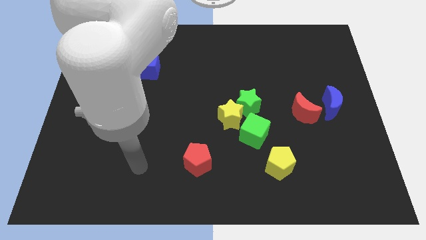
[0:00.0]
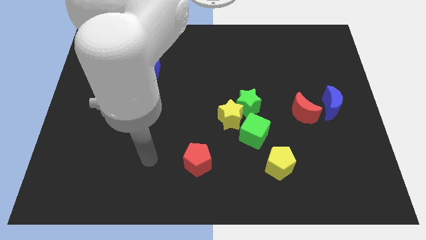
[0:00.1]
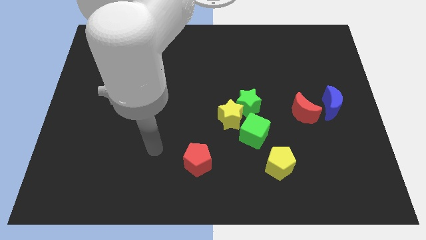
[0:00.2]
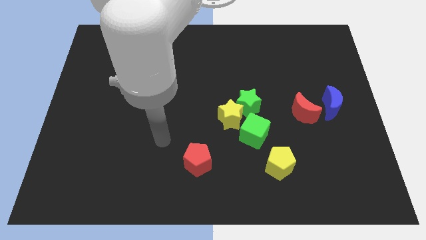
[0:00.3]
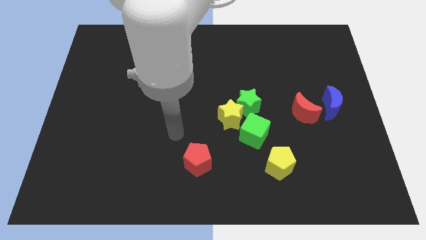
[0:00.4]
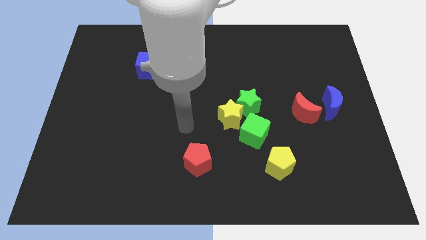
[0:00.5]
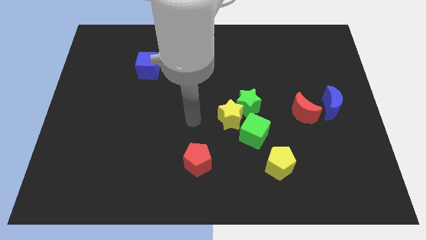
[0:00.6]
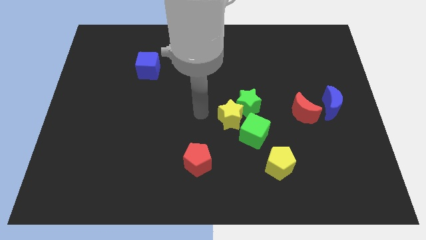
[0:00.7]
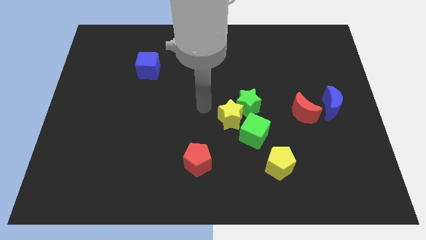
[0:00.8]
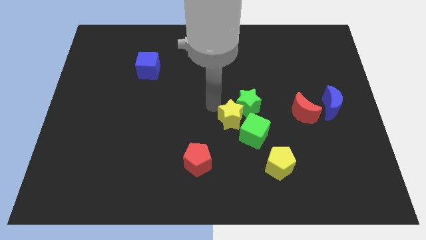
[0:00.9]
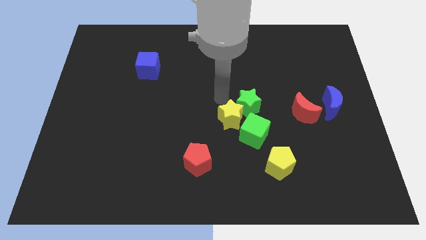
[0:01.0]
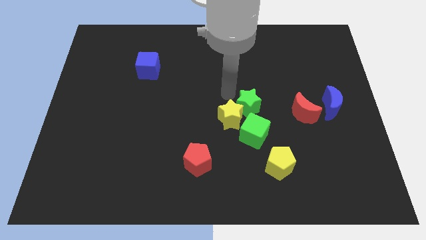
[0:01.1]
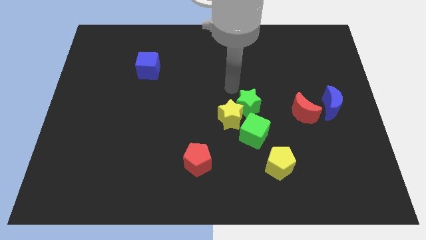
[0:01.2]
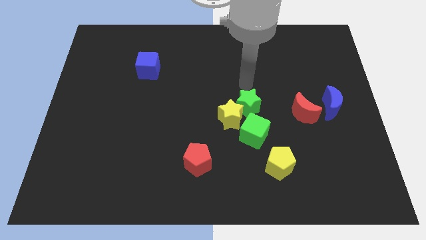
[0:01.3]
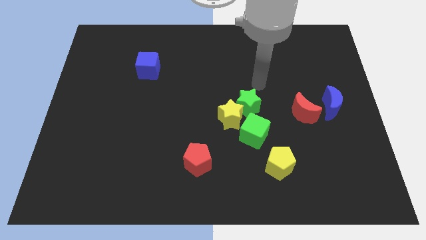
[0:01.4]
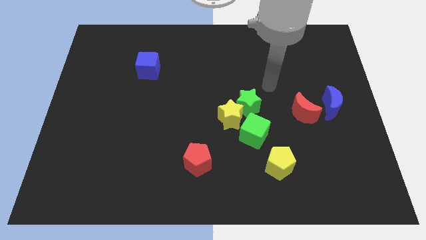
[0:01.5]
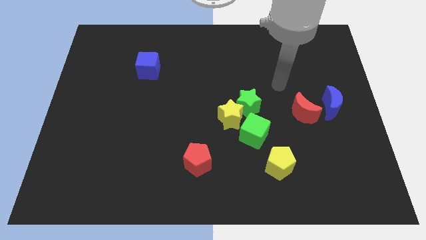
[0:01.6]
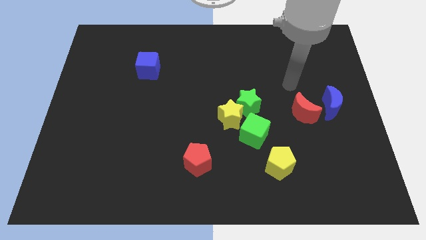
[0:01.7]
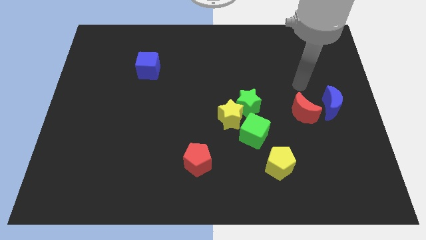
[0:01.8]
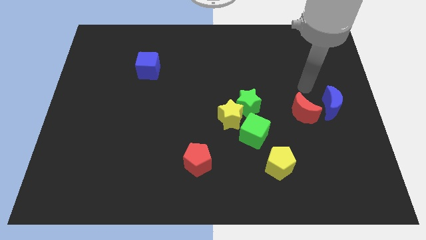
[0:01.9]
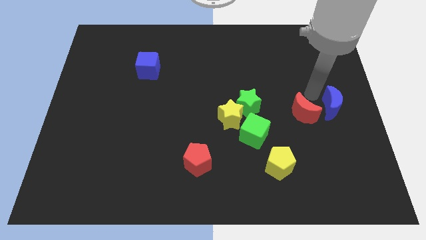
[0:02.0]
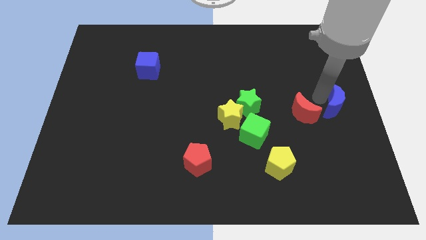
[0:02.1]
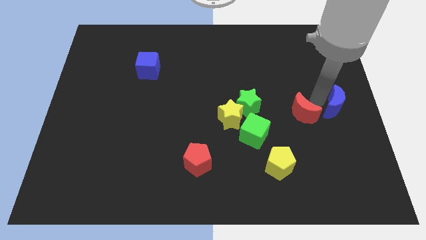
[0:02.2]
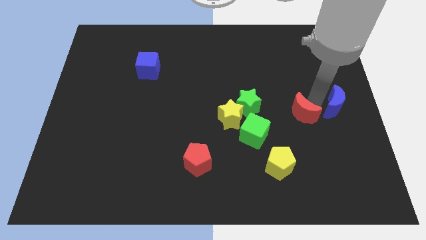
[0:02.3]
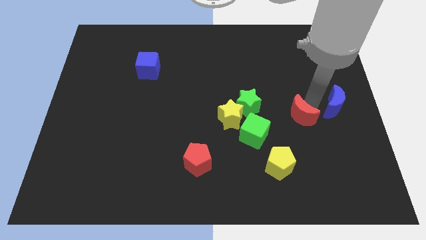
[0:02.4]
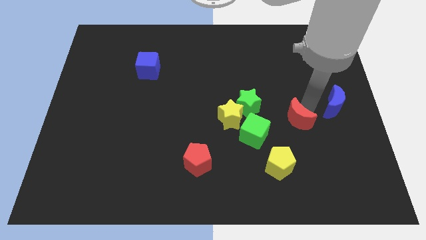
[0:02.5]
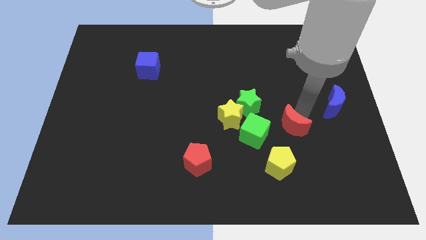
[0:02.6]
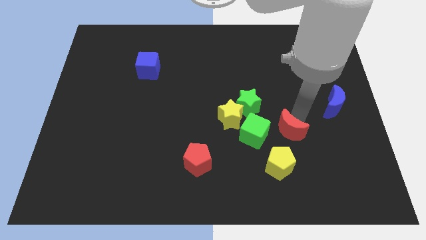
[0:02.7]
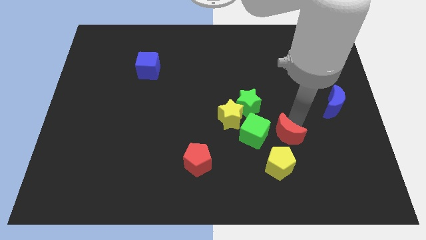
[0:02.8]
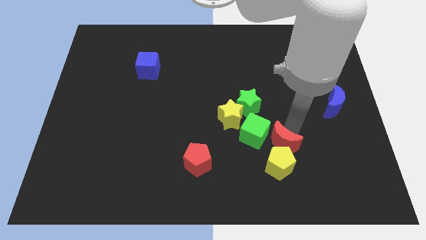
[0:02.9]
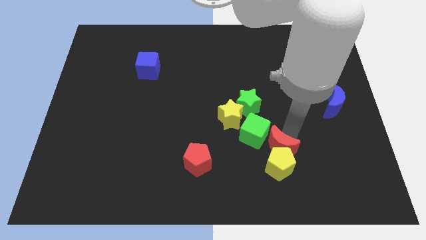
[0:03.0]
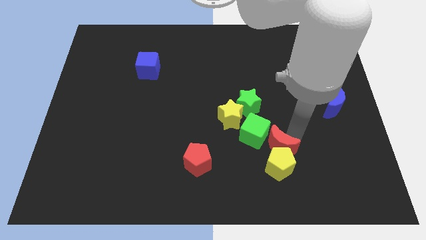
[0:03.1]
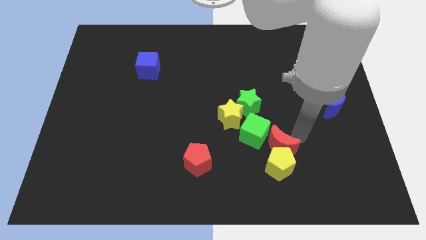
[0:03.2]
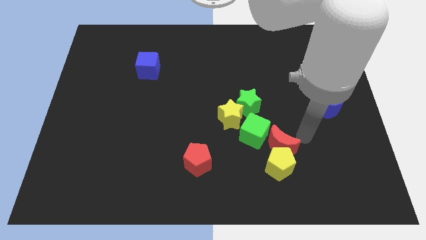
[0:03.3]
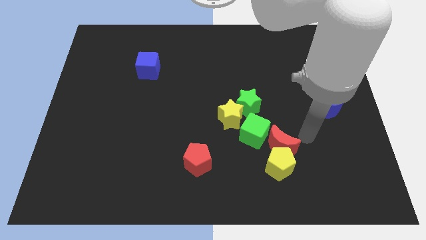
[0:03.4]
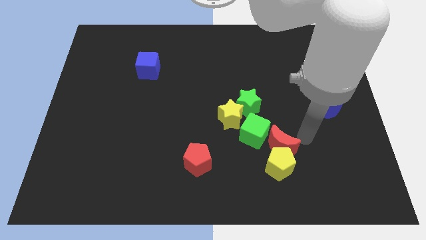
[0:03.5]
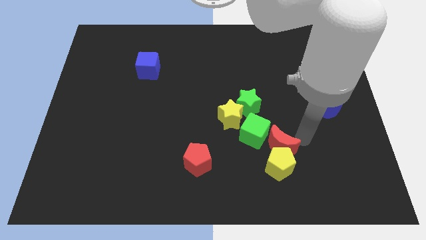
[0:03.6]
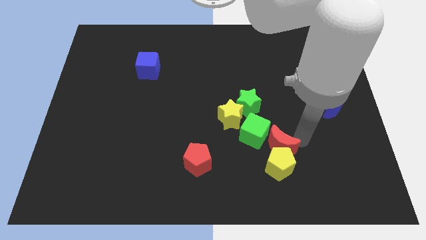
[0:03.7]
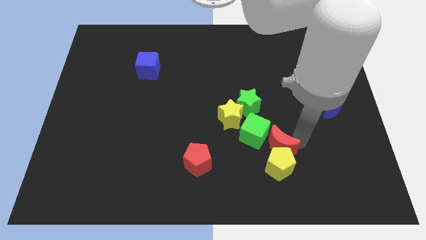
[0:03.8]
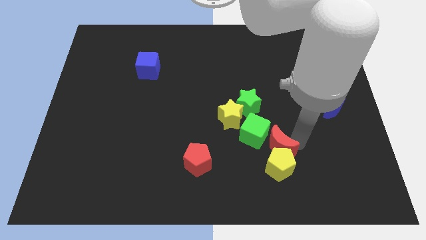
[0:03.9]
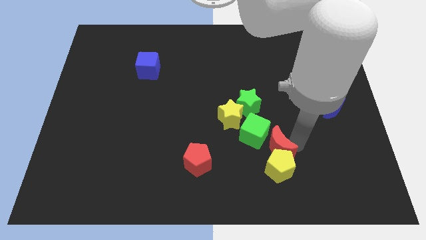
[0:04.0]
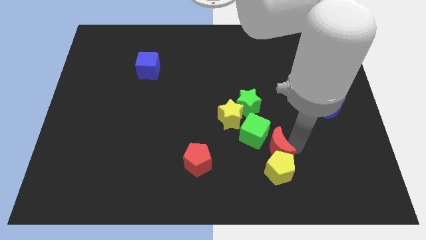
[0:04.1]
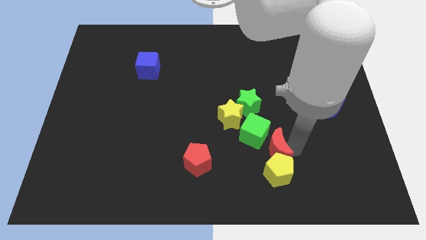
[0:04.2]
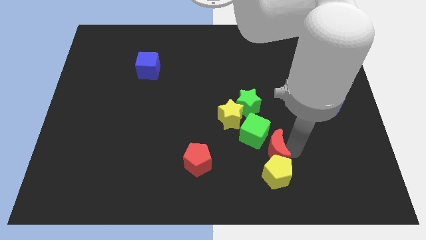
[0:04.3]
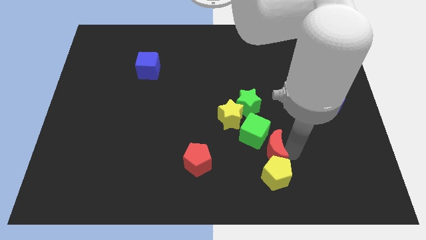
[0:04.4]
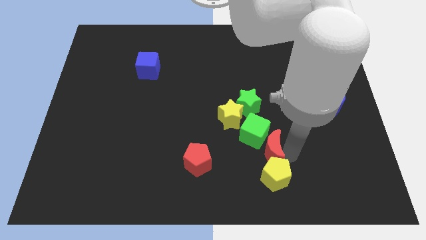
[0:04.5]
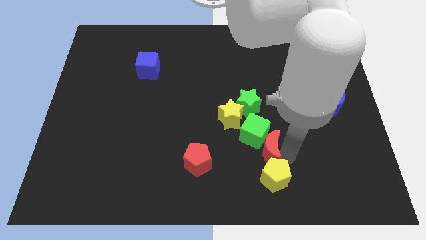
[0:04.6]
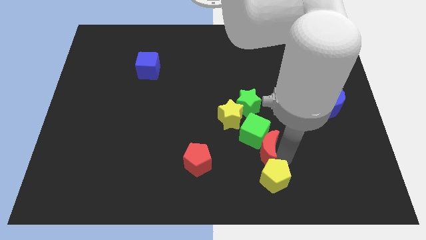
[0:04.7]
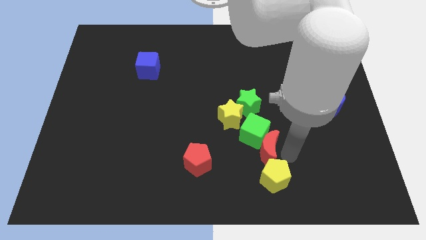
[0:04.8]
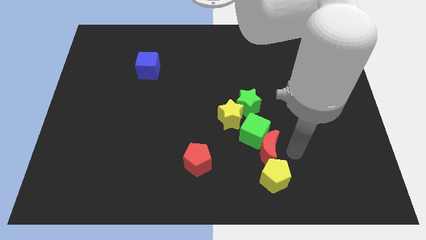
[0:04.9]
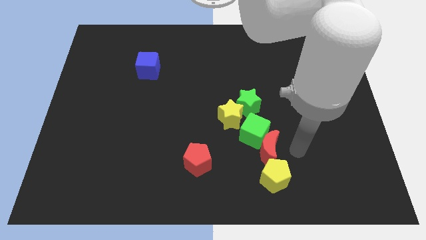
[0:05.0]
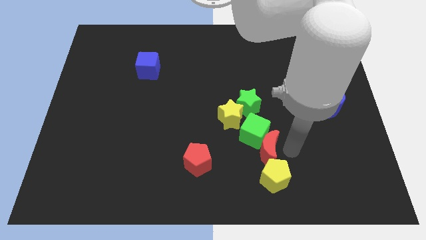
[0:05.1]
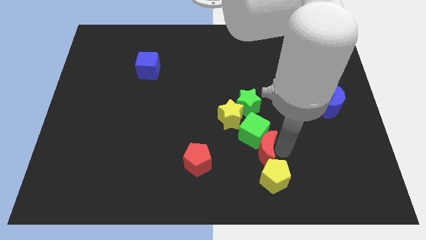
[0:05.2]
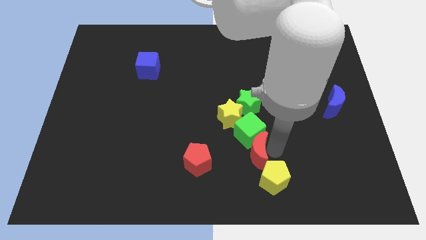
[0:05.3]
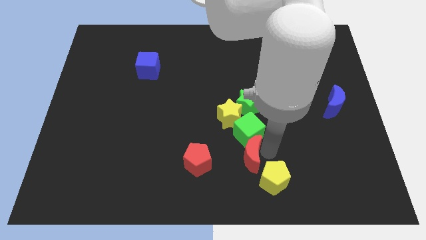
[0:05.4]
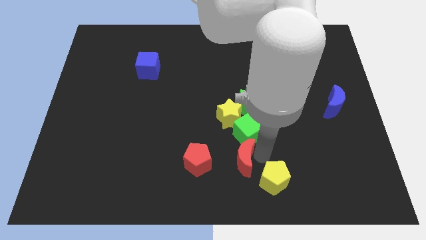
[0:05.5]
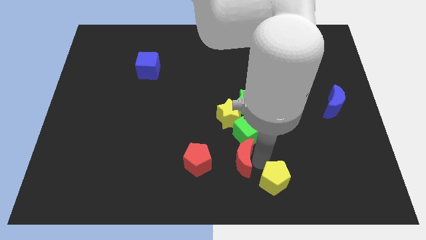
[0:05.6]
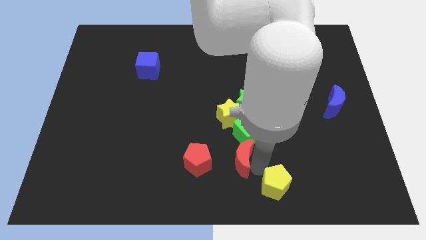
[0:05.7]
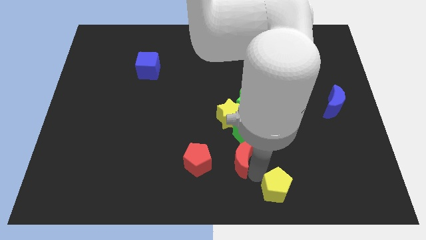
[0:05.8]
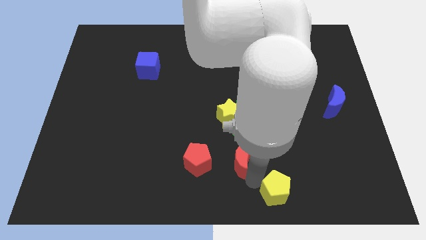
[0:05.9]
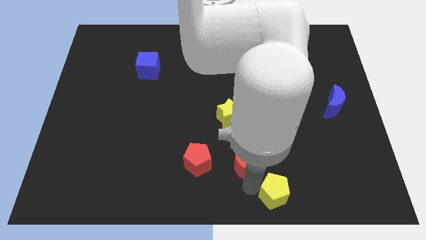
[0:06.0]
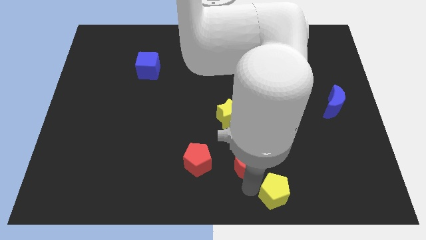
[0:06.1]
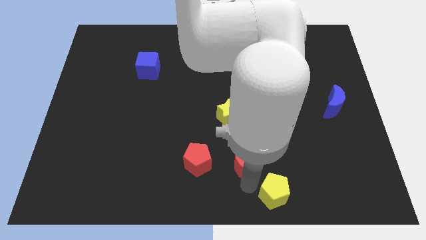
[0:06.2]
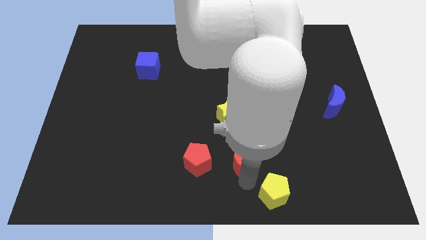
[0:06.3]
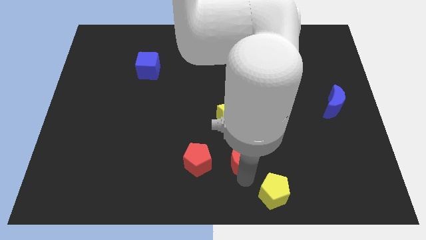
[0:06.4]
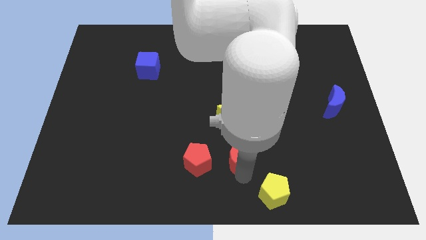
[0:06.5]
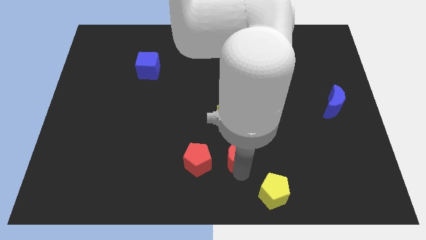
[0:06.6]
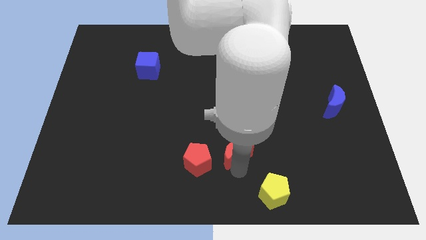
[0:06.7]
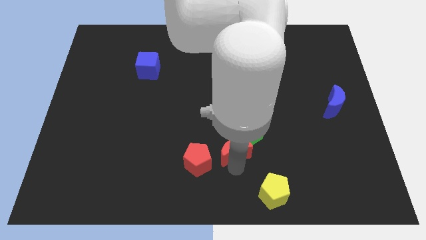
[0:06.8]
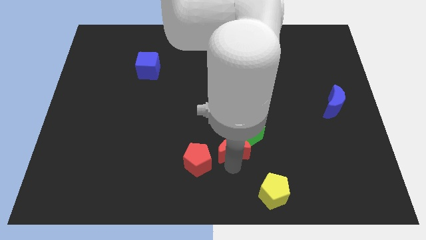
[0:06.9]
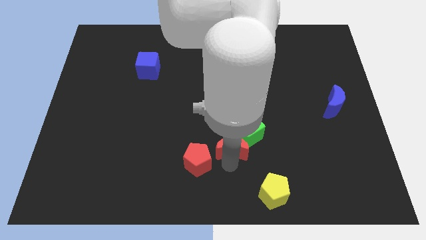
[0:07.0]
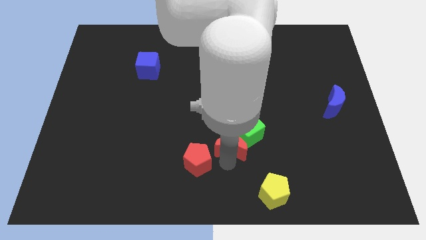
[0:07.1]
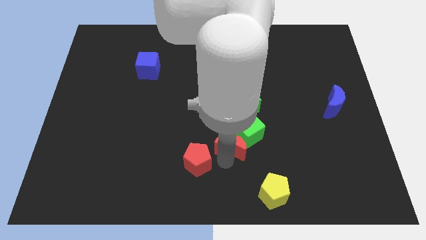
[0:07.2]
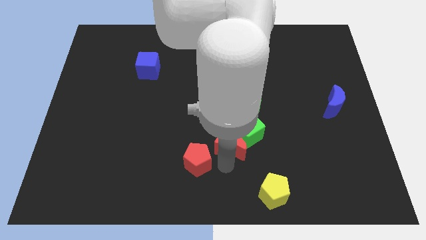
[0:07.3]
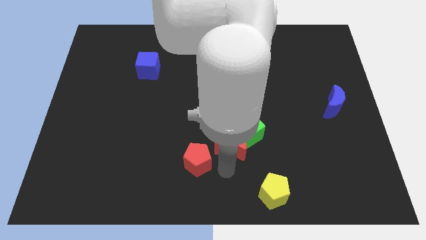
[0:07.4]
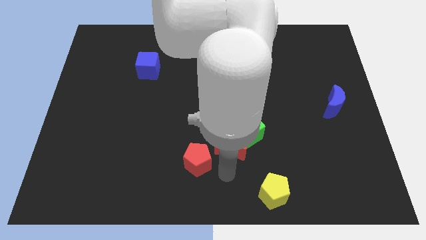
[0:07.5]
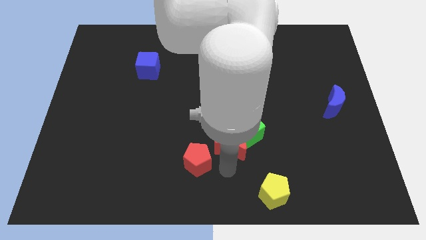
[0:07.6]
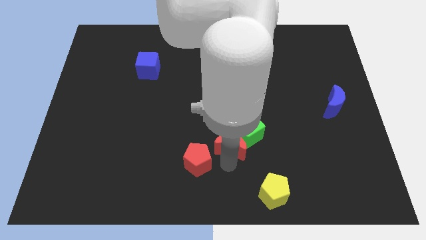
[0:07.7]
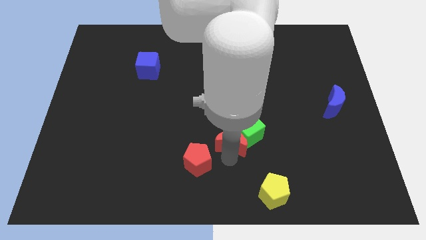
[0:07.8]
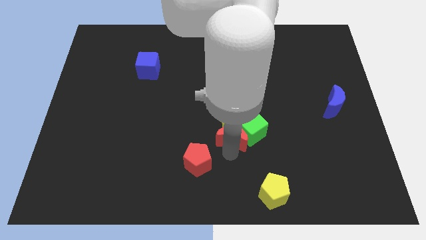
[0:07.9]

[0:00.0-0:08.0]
put the red moon close to the yellow star
